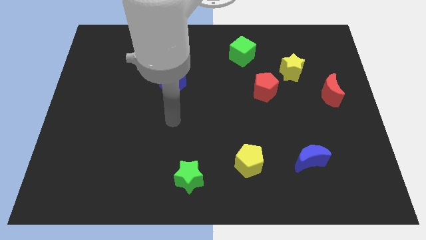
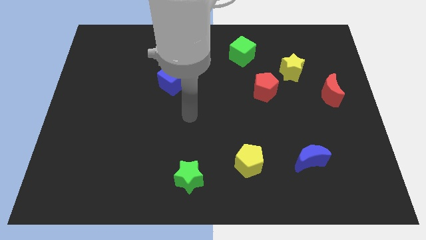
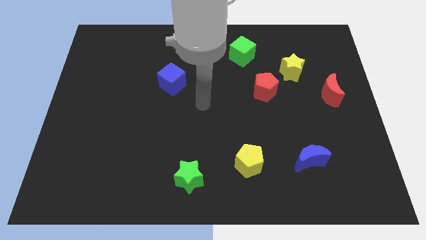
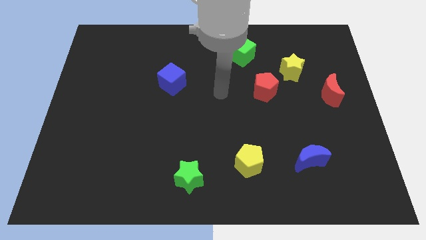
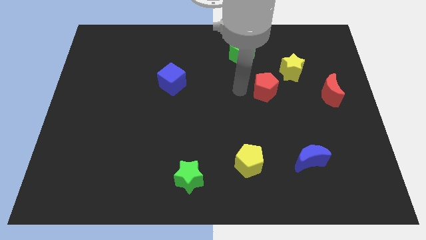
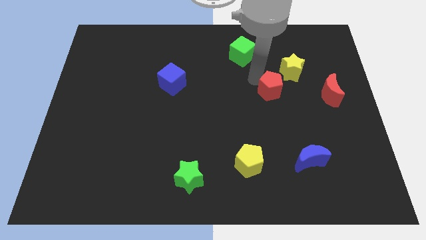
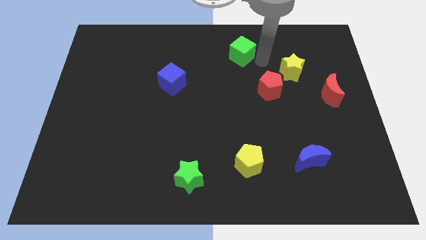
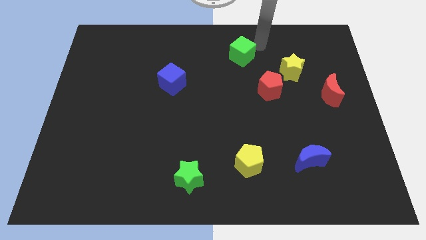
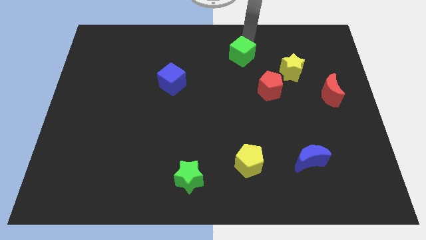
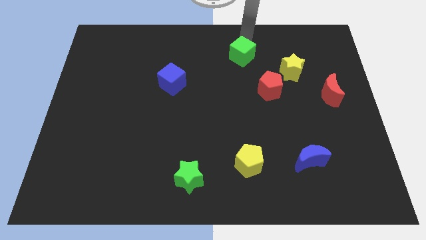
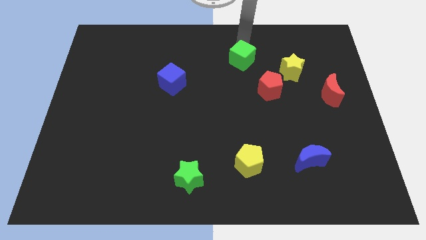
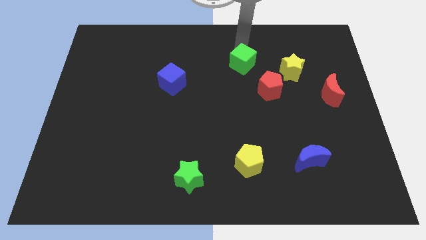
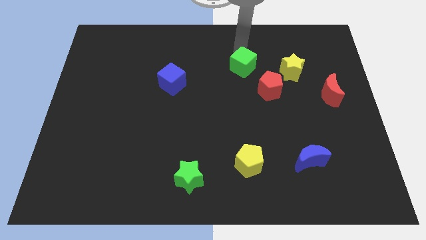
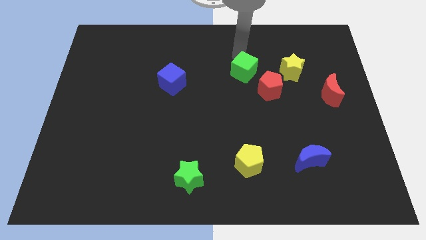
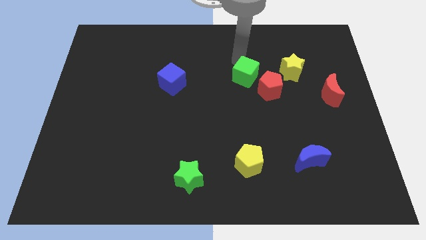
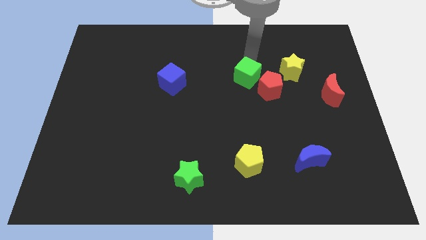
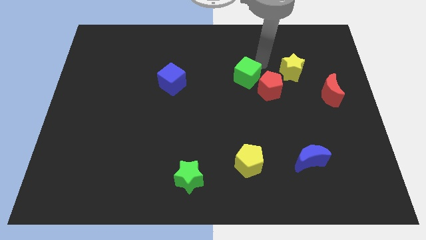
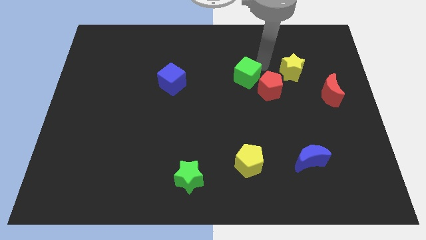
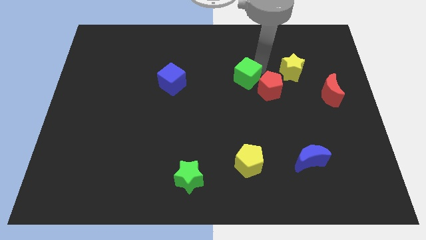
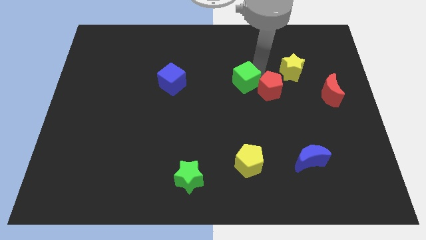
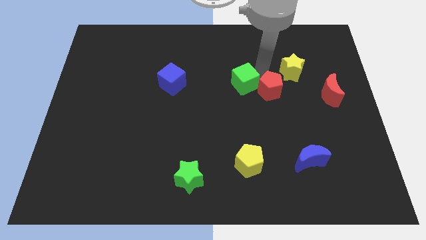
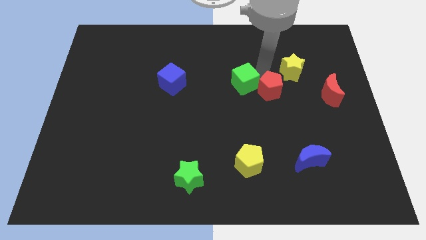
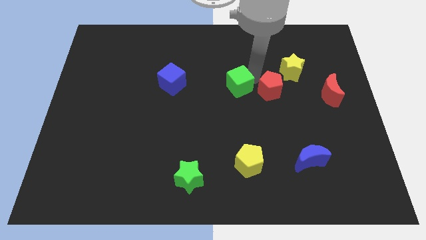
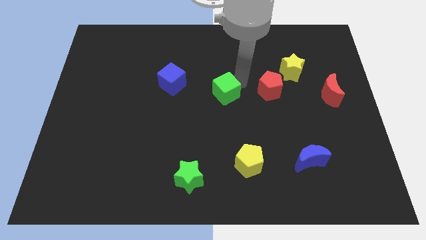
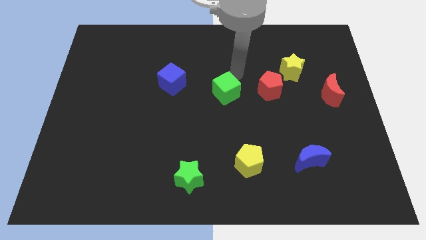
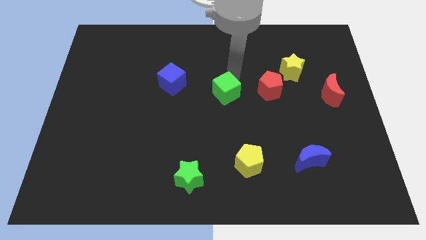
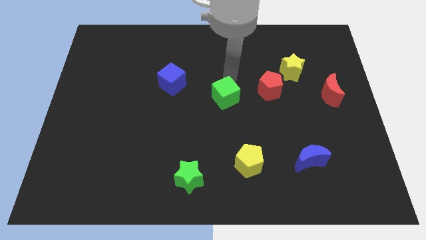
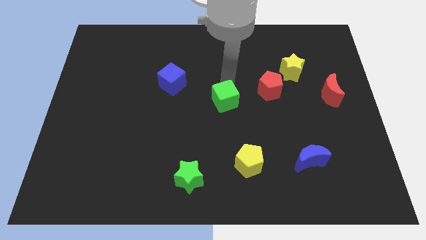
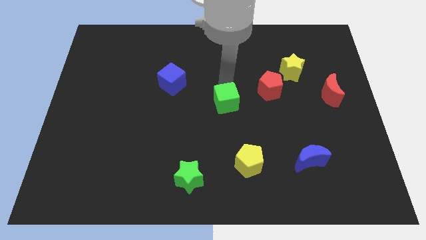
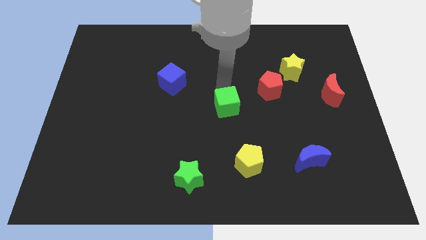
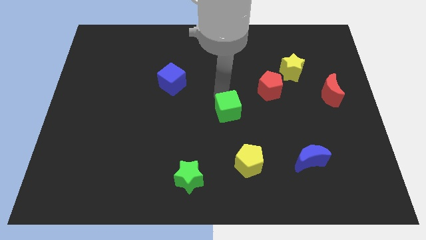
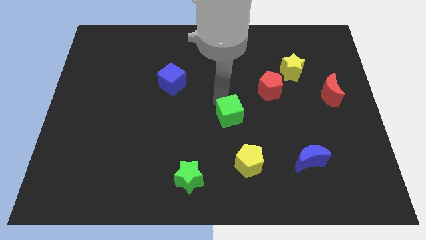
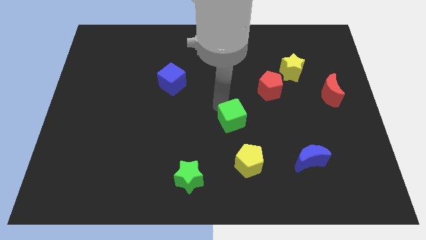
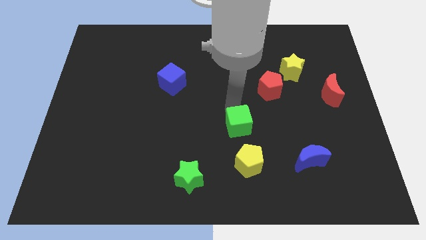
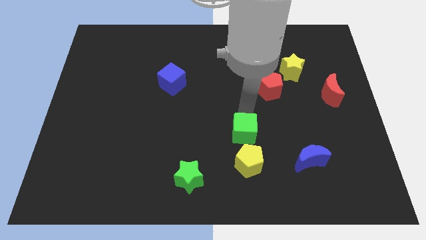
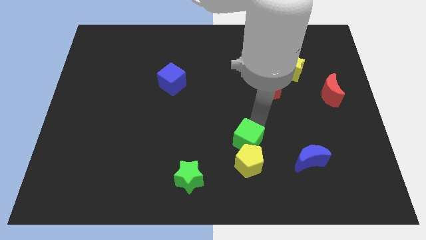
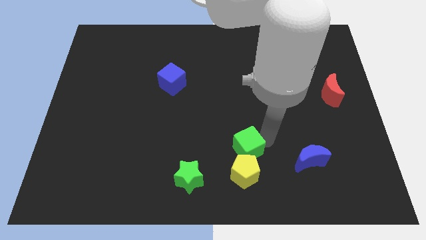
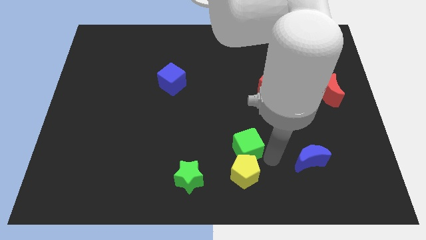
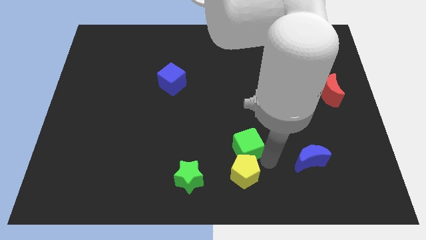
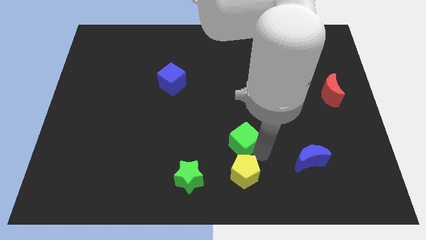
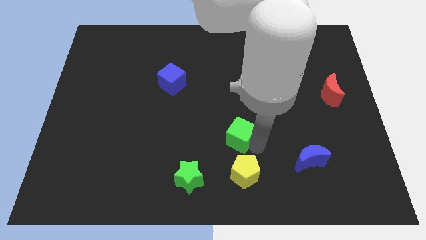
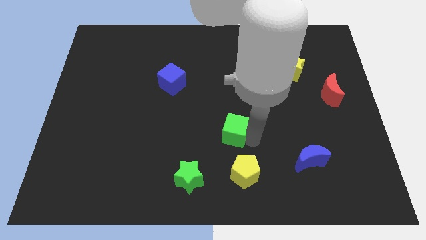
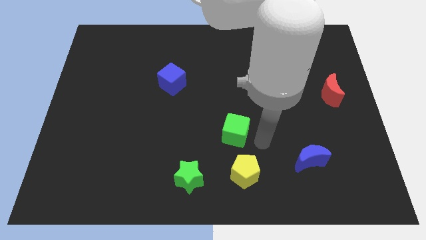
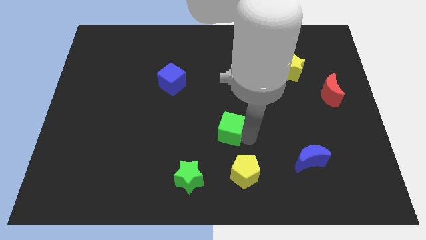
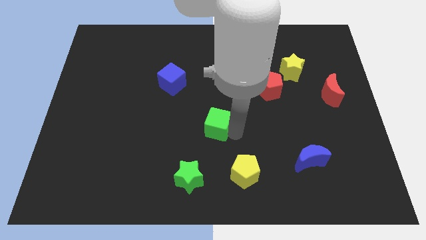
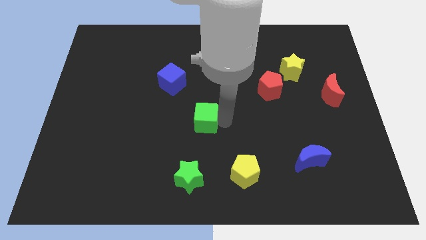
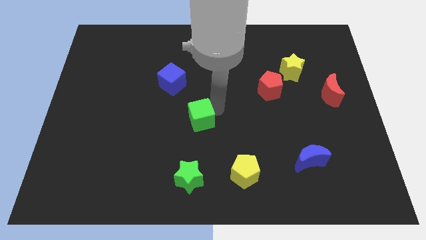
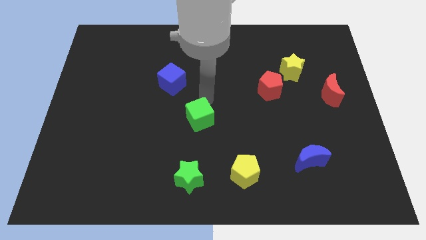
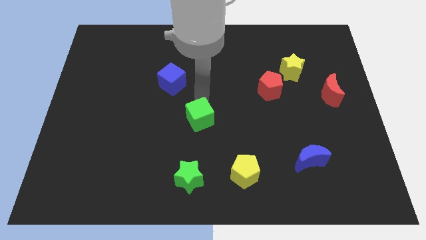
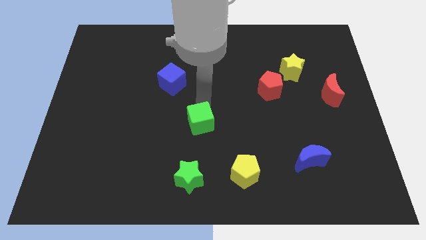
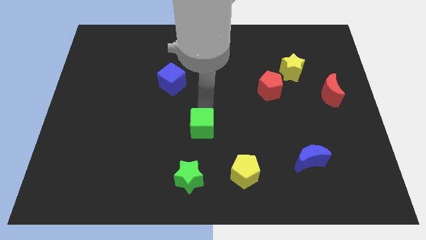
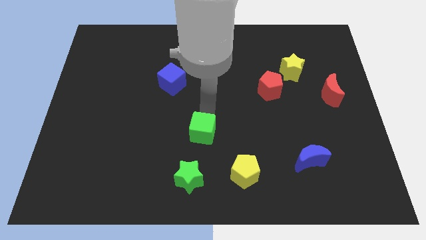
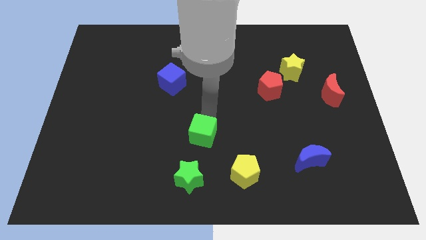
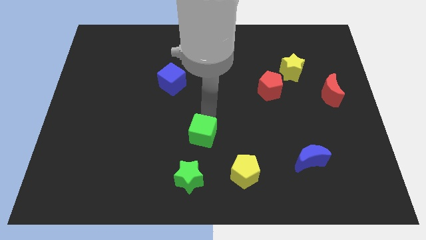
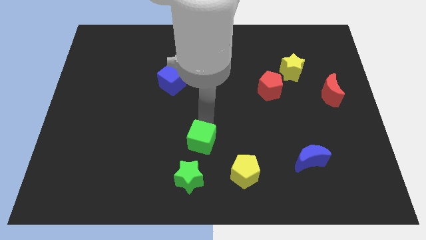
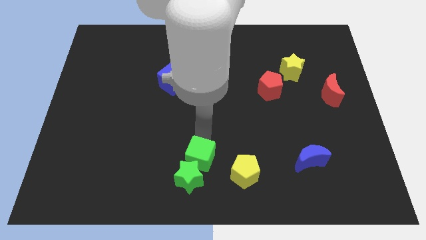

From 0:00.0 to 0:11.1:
slide the green cube to the green star
